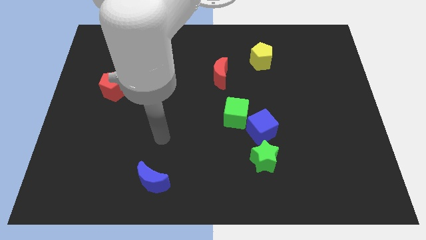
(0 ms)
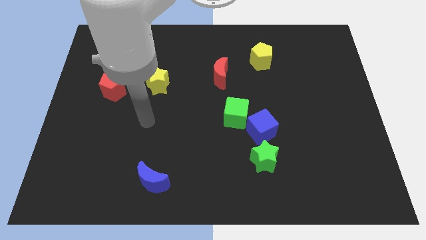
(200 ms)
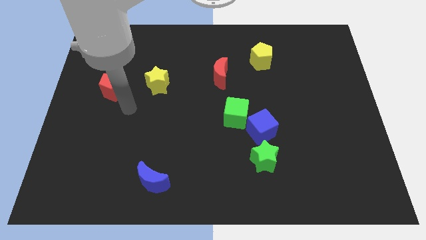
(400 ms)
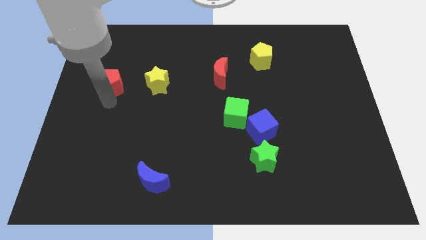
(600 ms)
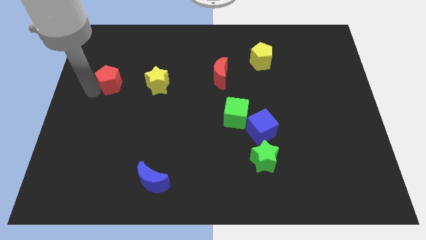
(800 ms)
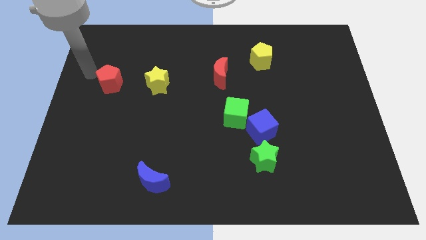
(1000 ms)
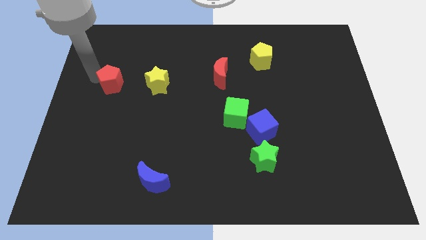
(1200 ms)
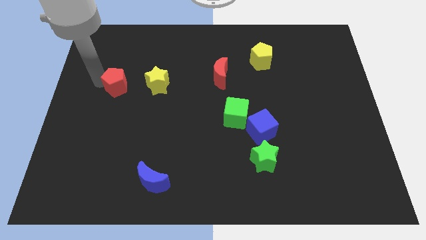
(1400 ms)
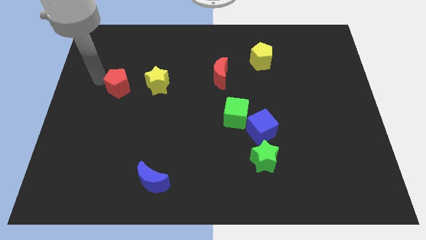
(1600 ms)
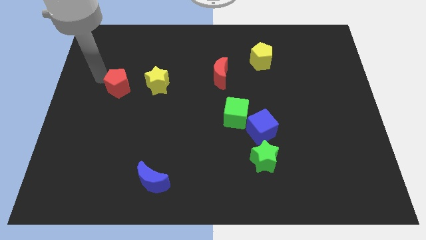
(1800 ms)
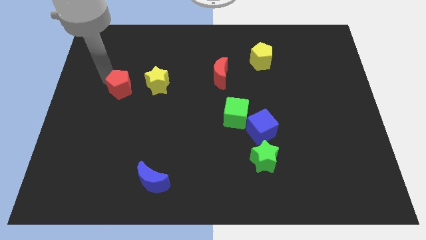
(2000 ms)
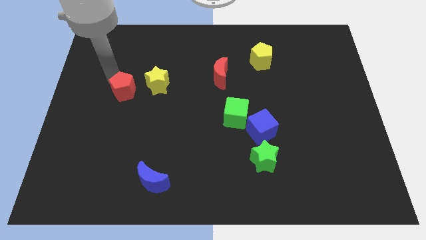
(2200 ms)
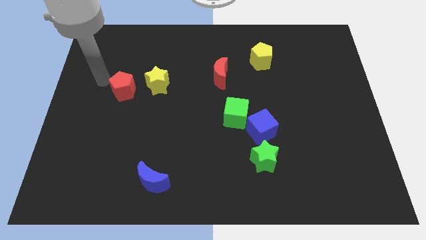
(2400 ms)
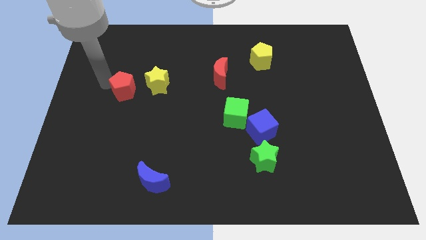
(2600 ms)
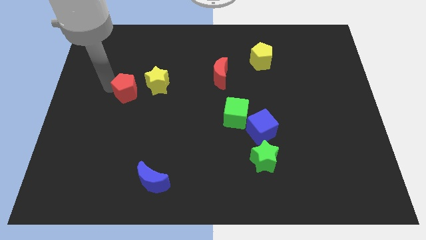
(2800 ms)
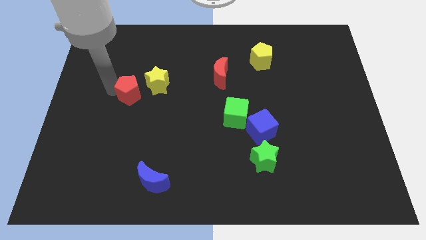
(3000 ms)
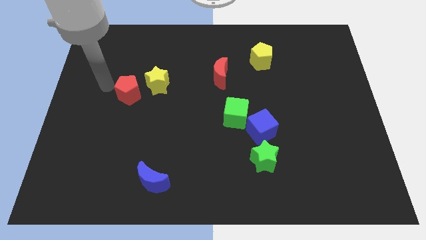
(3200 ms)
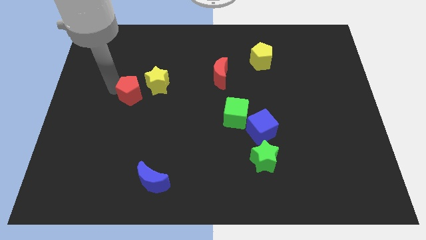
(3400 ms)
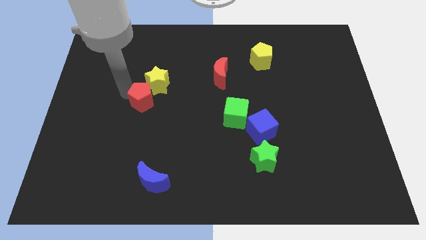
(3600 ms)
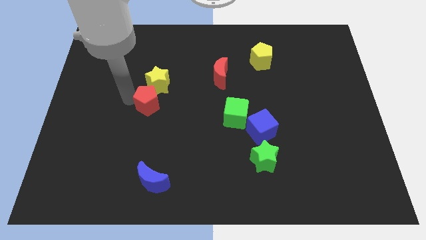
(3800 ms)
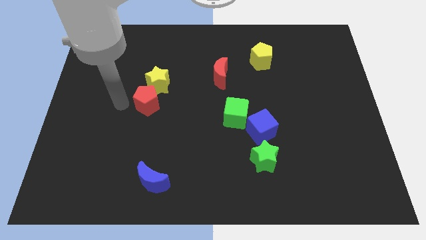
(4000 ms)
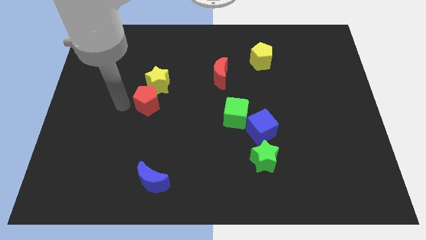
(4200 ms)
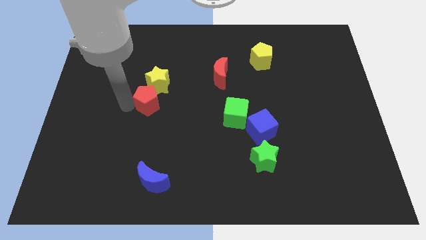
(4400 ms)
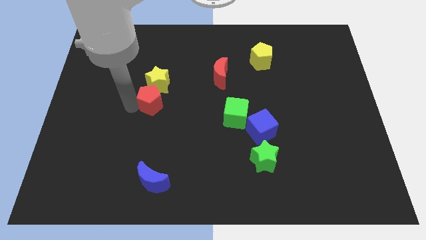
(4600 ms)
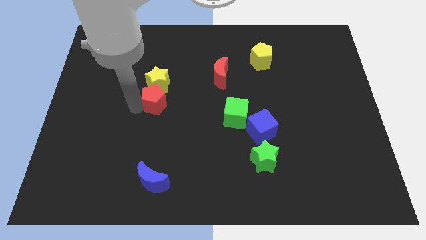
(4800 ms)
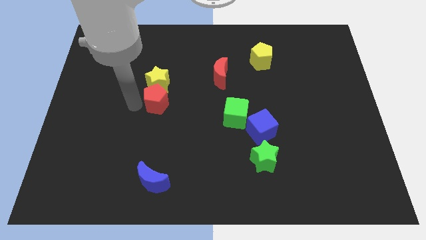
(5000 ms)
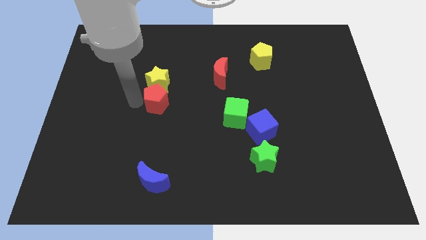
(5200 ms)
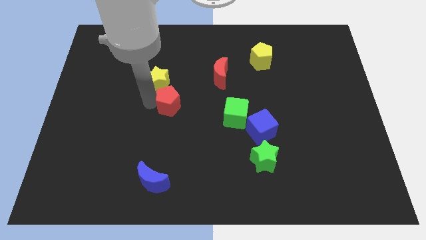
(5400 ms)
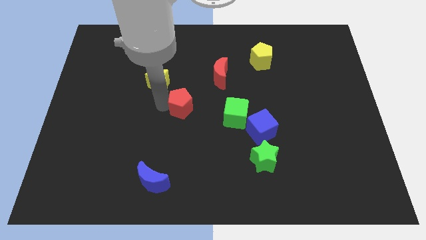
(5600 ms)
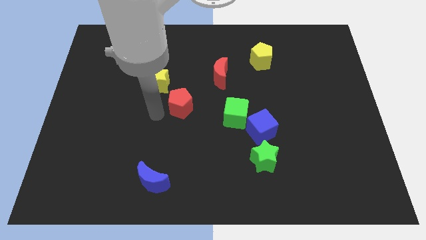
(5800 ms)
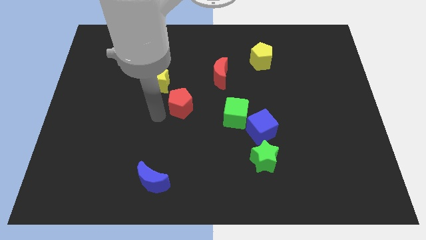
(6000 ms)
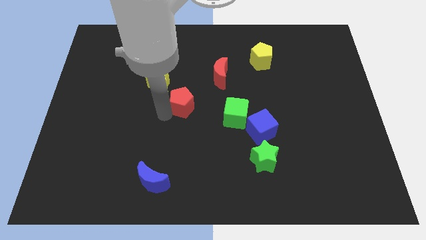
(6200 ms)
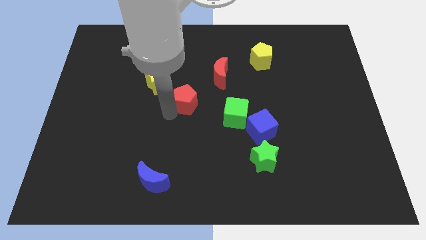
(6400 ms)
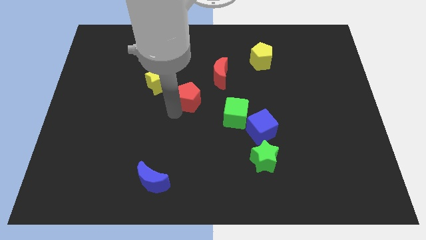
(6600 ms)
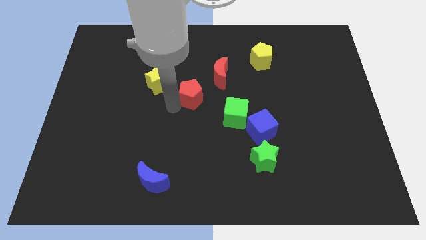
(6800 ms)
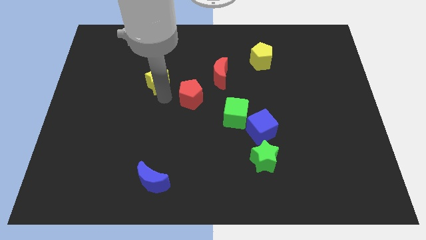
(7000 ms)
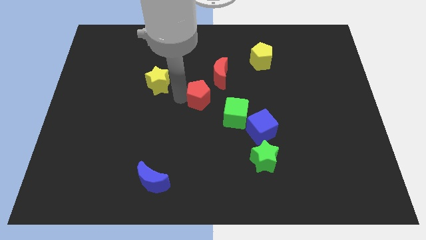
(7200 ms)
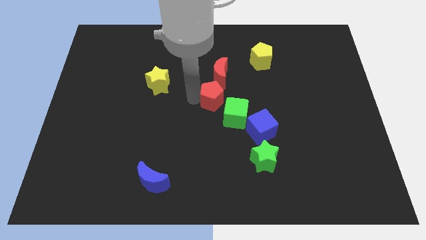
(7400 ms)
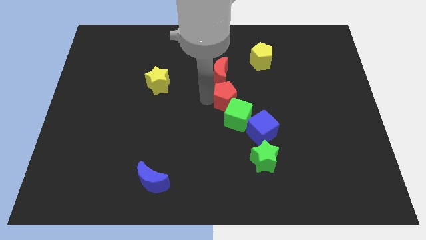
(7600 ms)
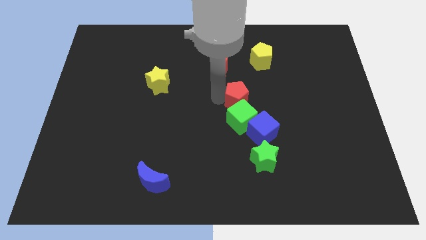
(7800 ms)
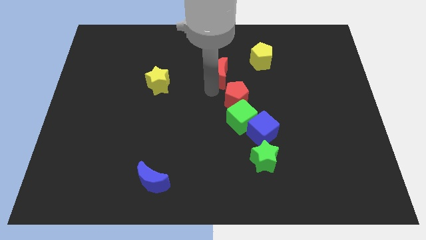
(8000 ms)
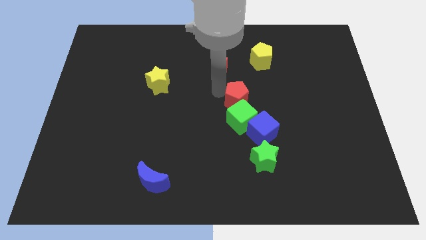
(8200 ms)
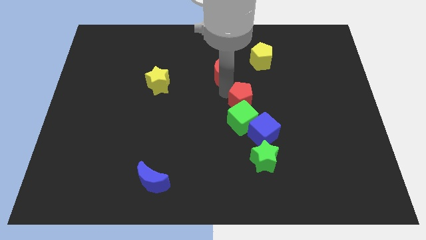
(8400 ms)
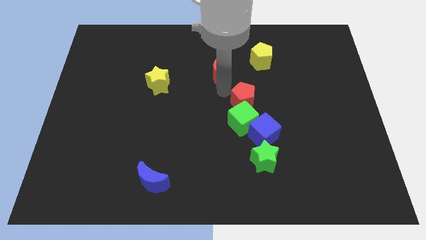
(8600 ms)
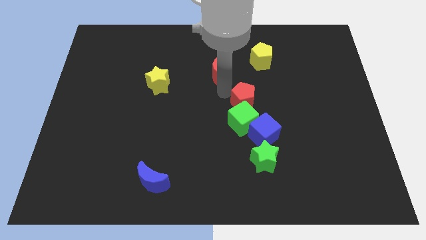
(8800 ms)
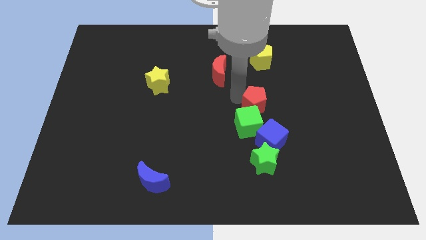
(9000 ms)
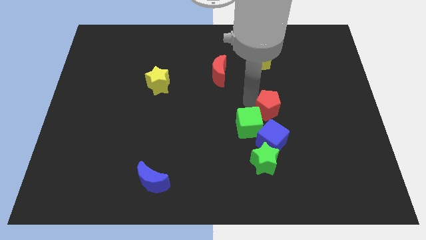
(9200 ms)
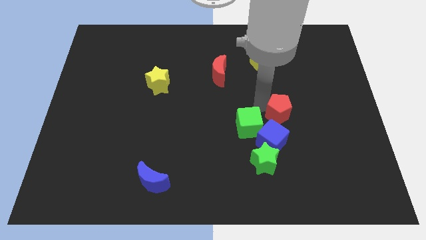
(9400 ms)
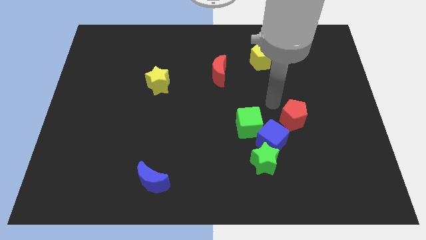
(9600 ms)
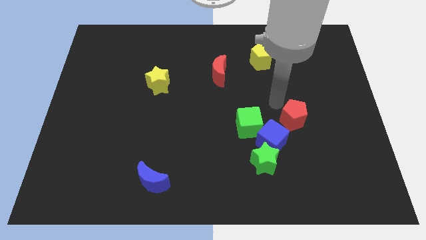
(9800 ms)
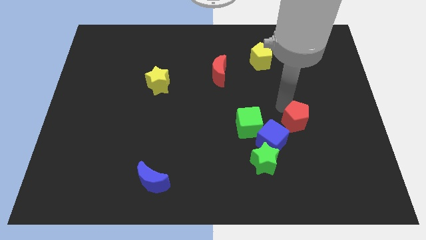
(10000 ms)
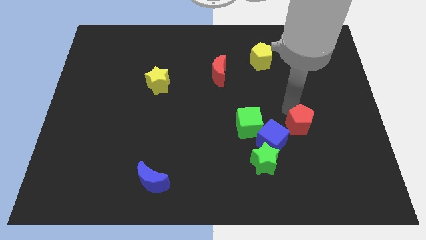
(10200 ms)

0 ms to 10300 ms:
move the red pentagon just right of the blue cube

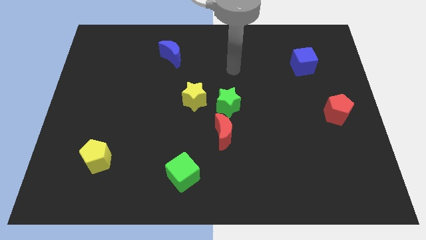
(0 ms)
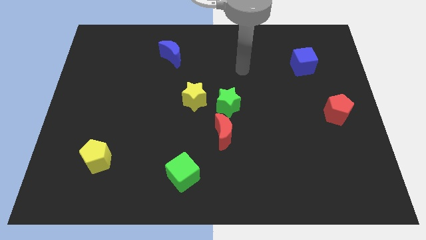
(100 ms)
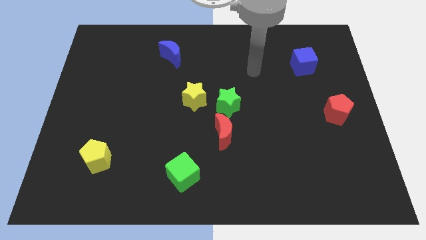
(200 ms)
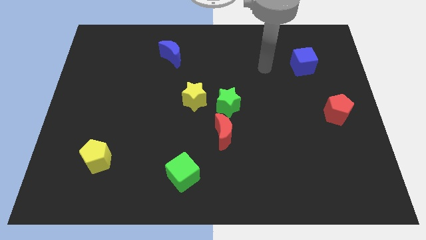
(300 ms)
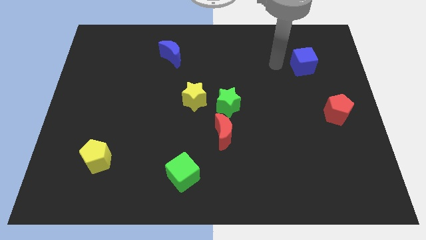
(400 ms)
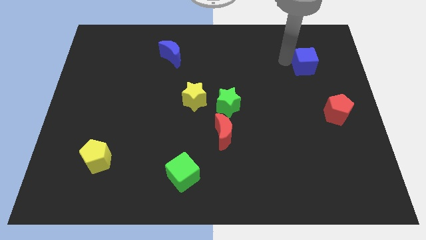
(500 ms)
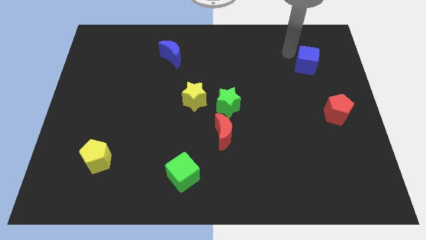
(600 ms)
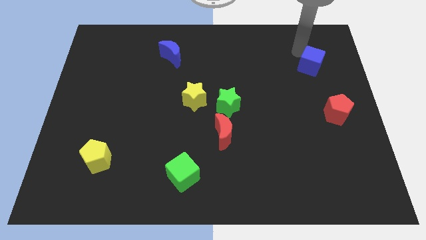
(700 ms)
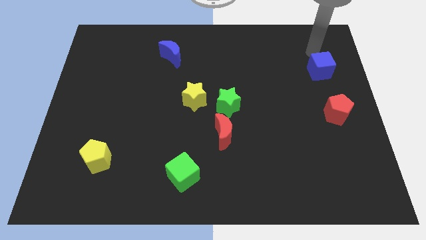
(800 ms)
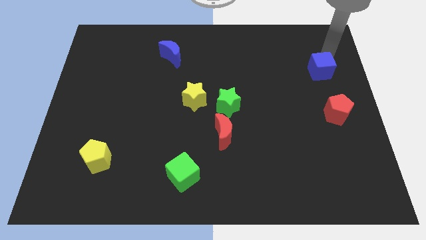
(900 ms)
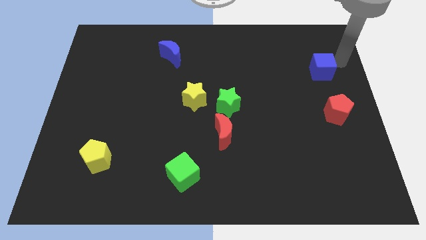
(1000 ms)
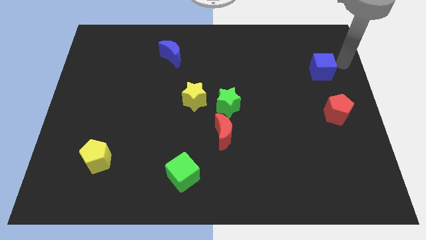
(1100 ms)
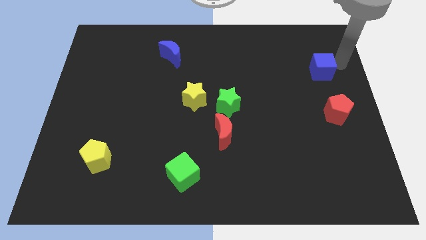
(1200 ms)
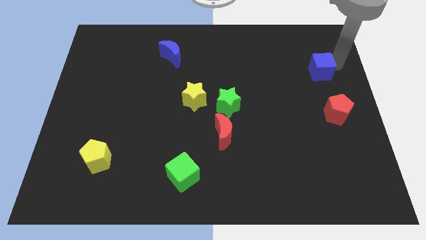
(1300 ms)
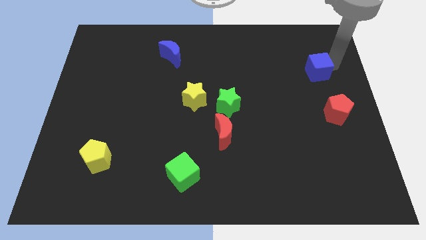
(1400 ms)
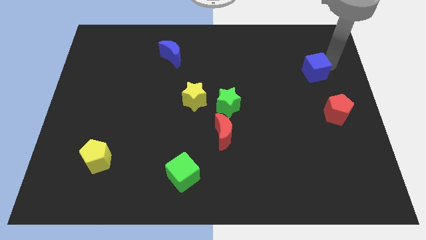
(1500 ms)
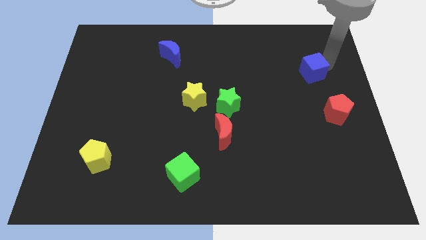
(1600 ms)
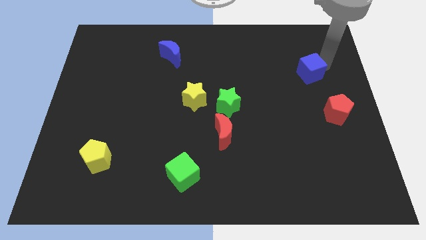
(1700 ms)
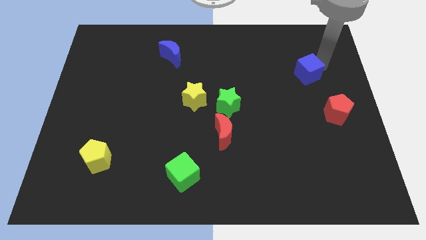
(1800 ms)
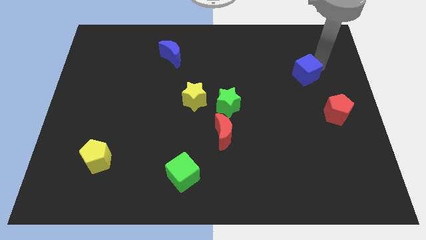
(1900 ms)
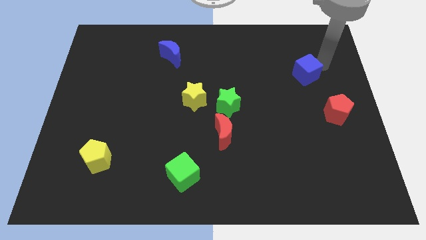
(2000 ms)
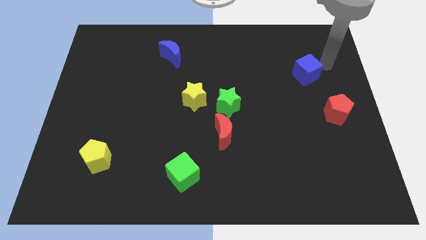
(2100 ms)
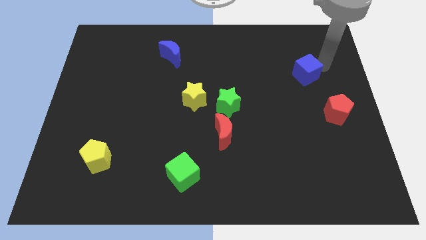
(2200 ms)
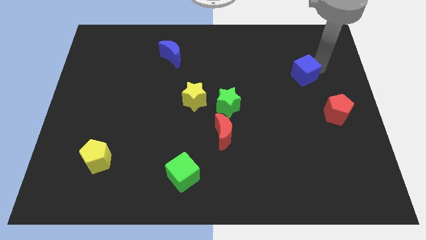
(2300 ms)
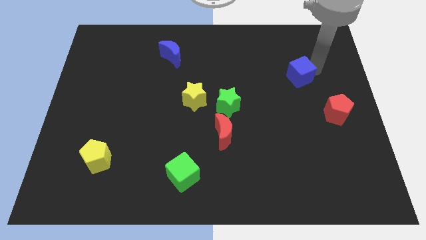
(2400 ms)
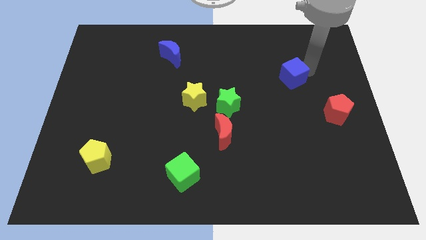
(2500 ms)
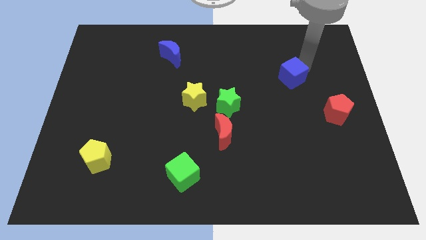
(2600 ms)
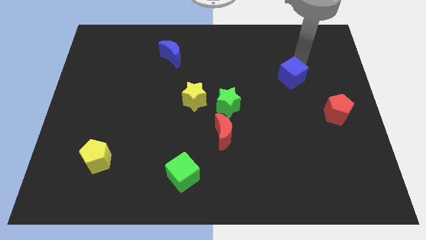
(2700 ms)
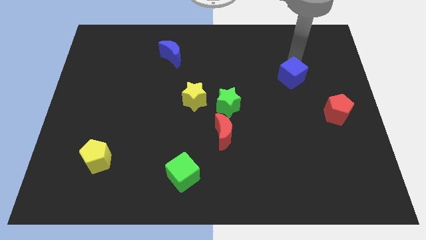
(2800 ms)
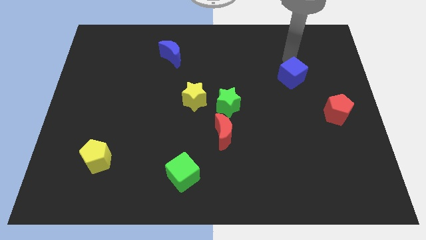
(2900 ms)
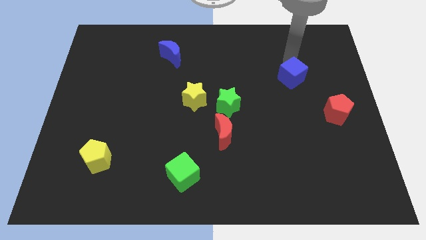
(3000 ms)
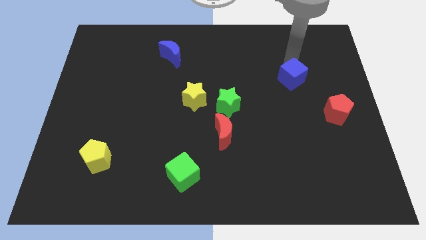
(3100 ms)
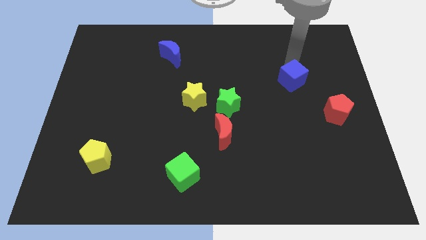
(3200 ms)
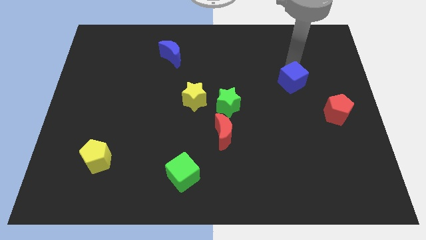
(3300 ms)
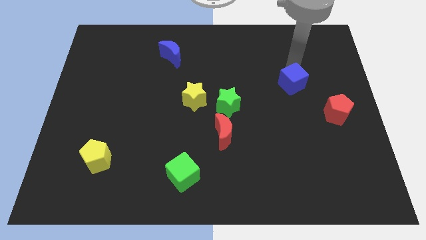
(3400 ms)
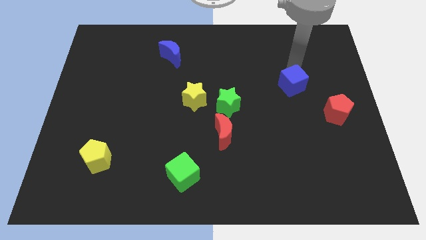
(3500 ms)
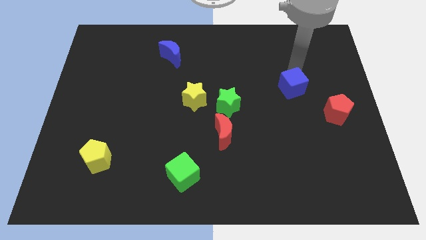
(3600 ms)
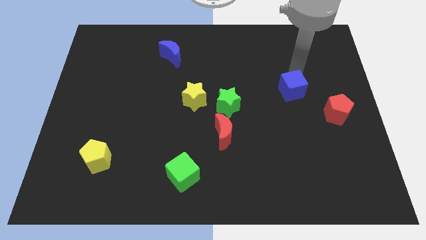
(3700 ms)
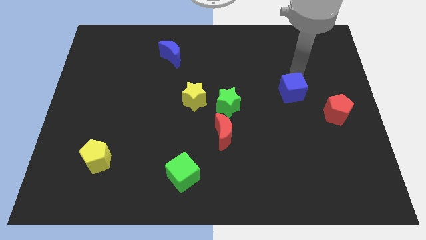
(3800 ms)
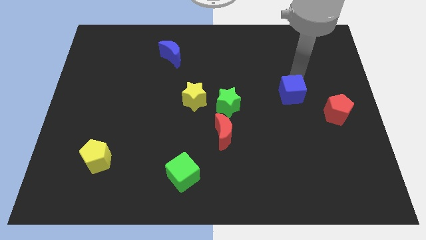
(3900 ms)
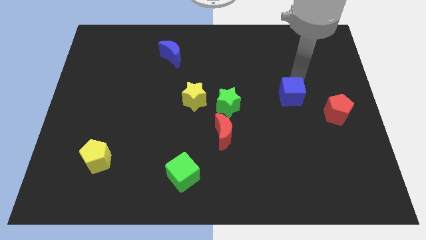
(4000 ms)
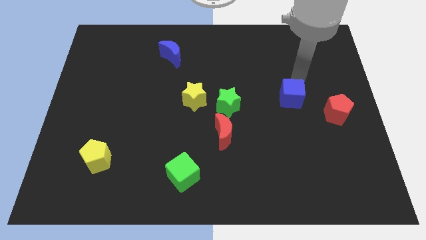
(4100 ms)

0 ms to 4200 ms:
move the blue cube left of the red pentagon
